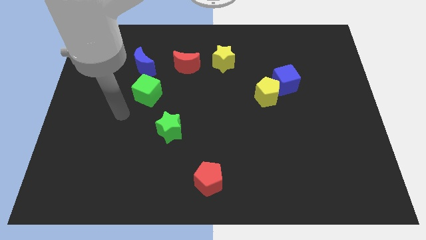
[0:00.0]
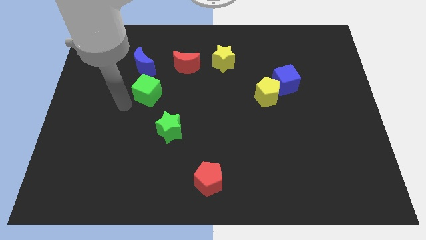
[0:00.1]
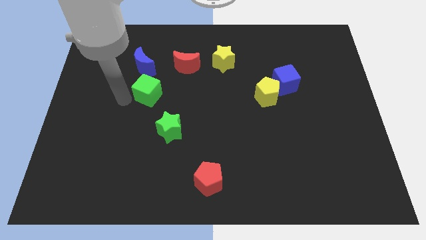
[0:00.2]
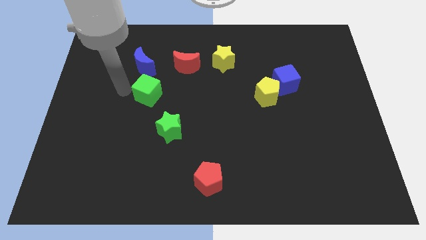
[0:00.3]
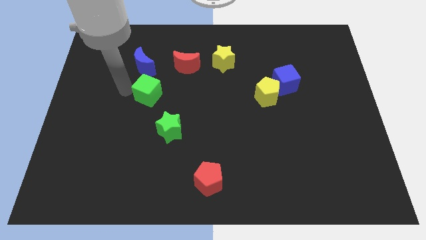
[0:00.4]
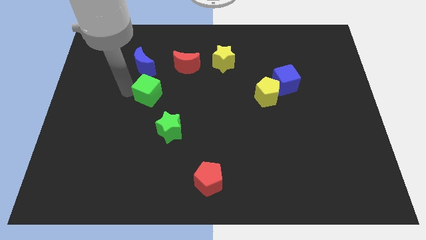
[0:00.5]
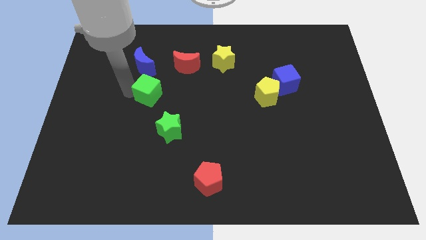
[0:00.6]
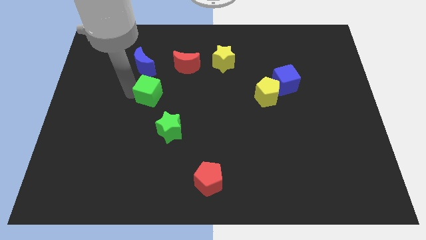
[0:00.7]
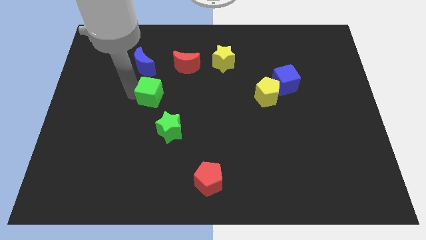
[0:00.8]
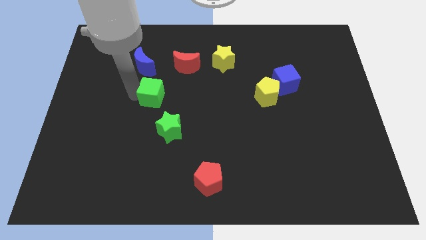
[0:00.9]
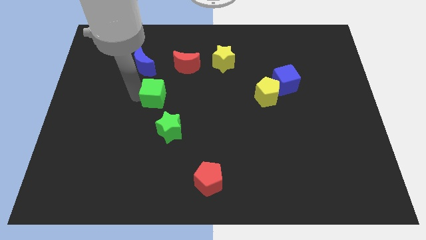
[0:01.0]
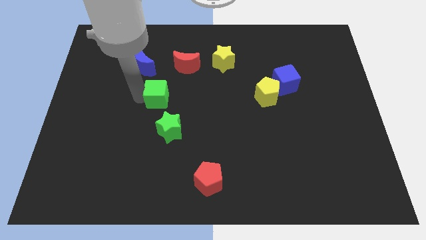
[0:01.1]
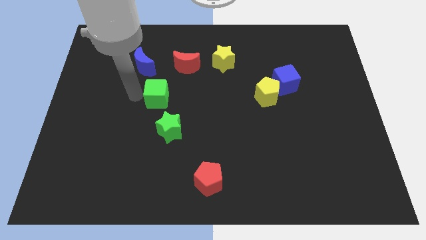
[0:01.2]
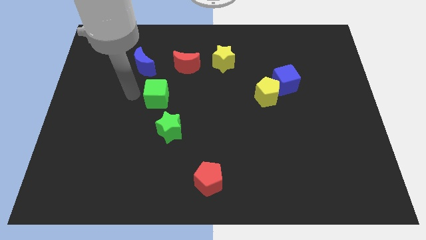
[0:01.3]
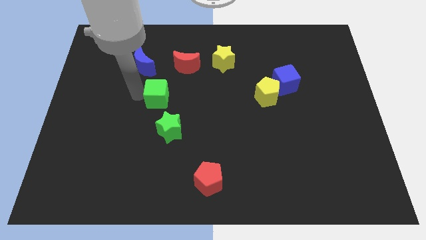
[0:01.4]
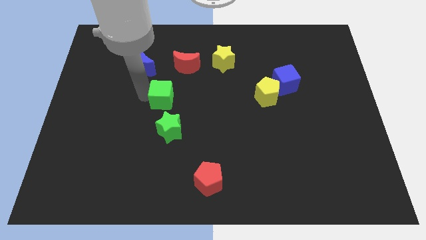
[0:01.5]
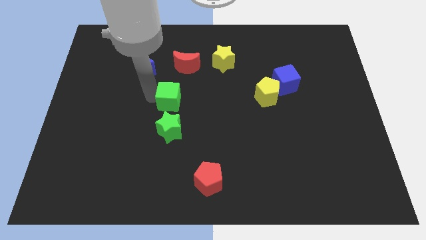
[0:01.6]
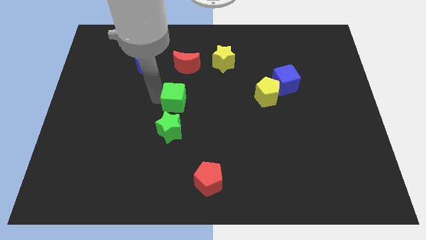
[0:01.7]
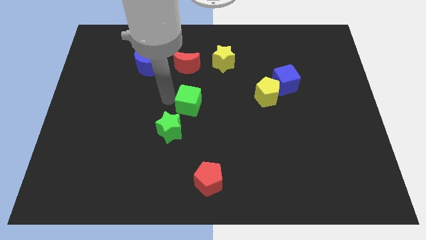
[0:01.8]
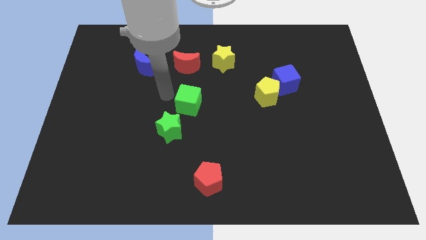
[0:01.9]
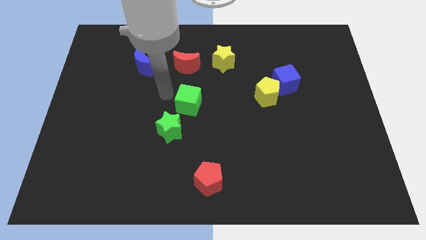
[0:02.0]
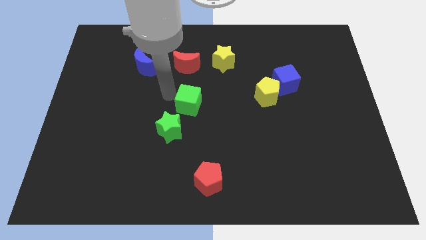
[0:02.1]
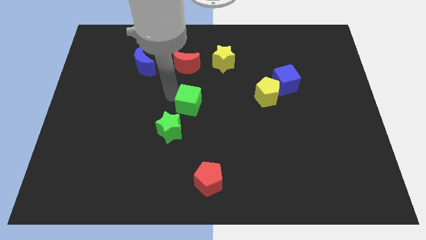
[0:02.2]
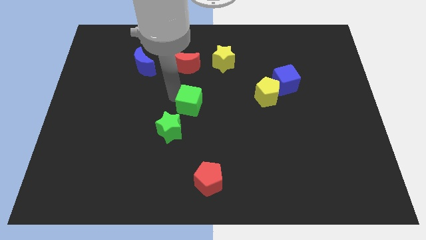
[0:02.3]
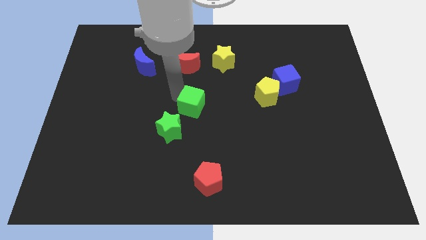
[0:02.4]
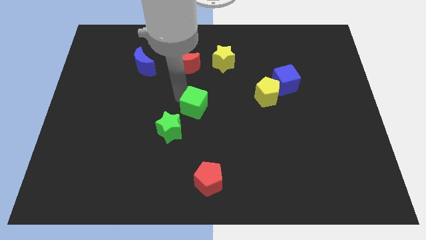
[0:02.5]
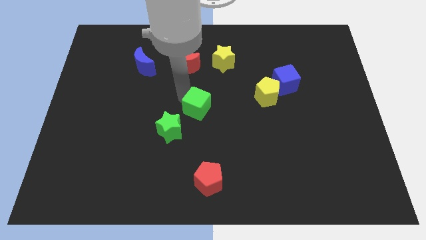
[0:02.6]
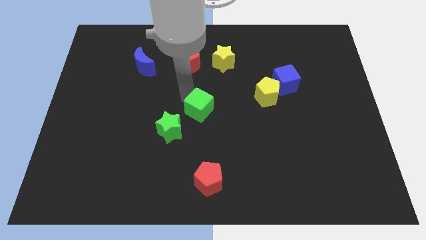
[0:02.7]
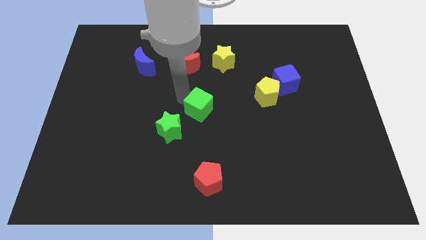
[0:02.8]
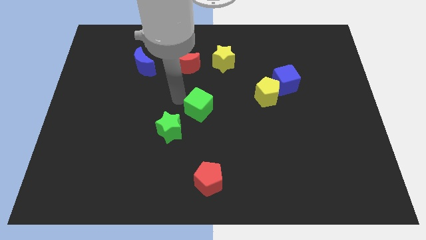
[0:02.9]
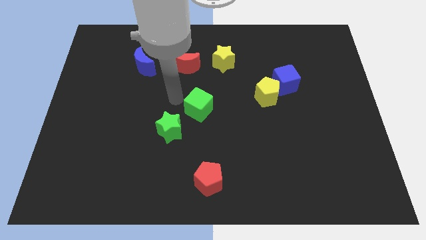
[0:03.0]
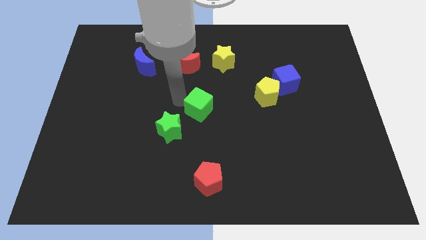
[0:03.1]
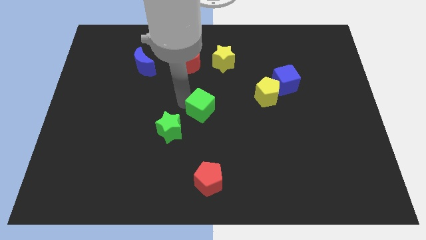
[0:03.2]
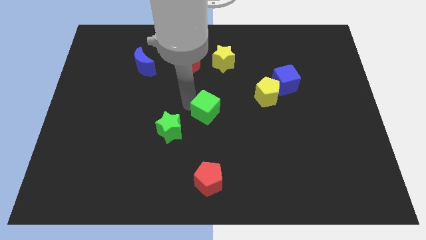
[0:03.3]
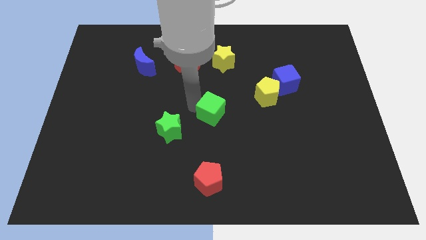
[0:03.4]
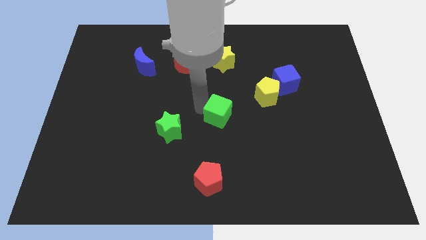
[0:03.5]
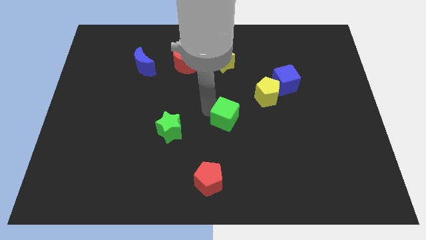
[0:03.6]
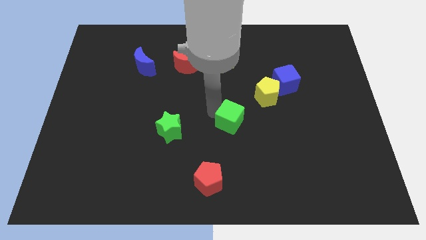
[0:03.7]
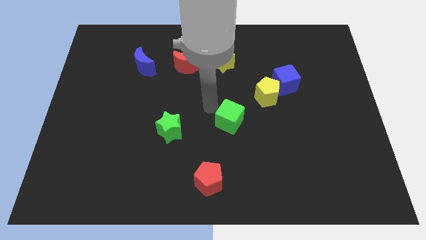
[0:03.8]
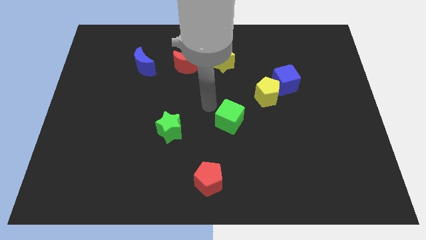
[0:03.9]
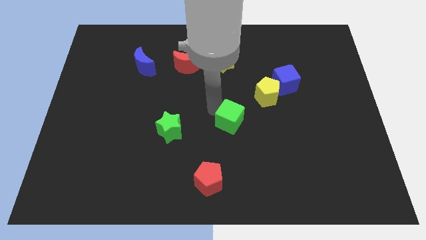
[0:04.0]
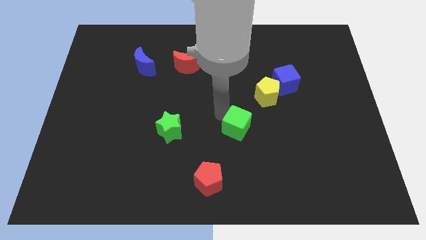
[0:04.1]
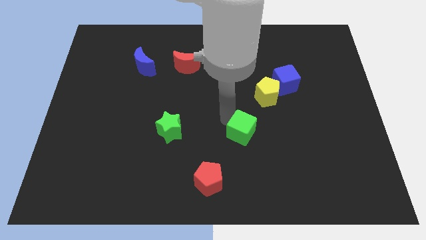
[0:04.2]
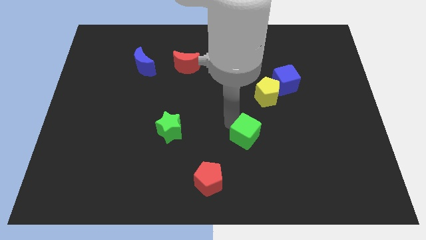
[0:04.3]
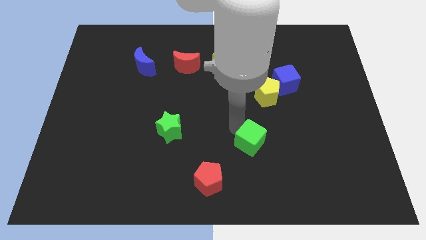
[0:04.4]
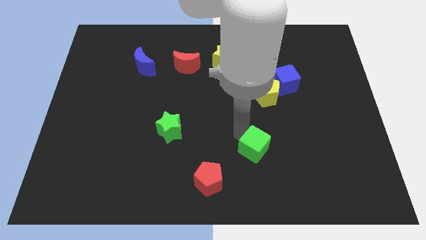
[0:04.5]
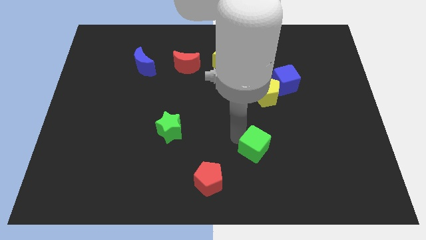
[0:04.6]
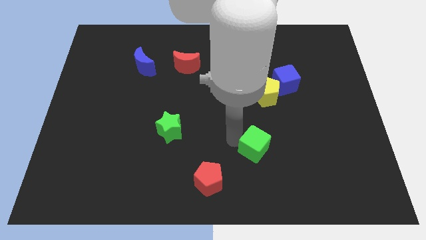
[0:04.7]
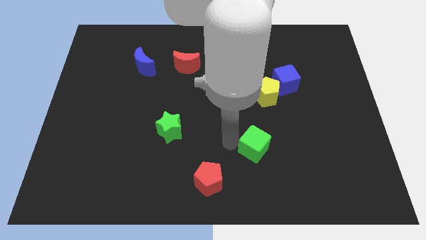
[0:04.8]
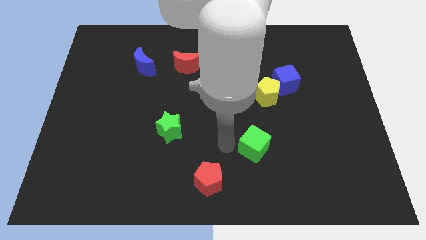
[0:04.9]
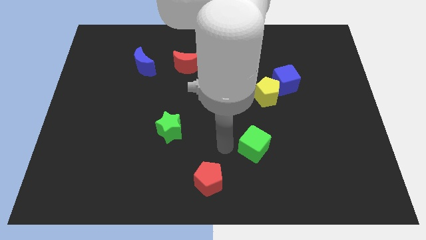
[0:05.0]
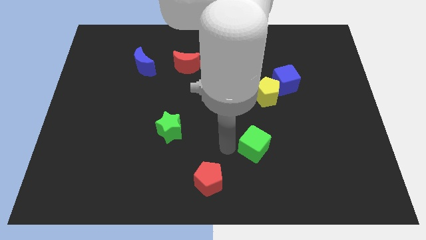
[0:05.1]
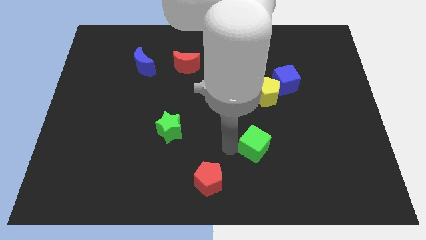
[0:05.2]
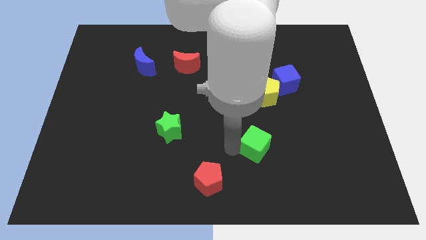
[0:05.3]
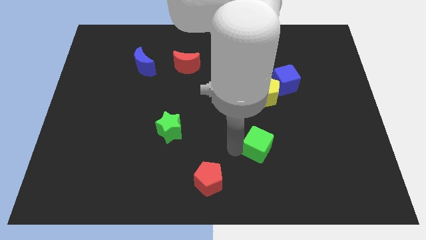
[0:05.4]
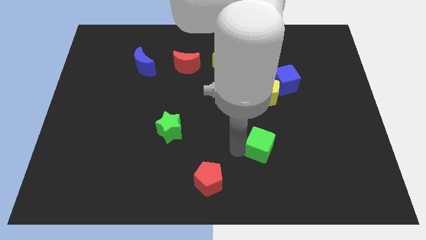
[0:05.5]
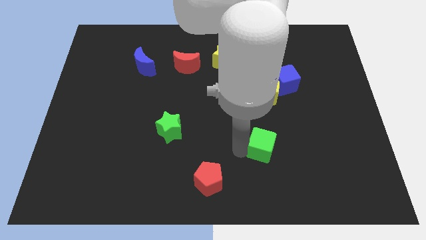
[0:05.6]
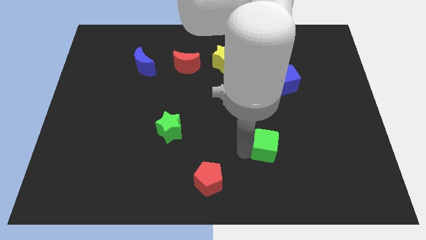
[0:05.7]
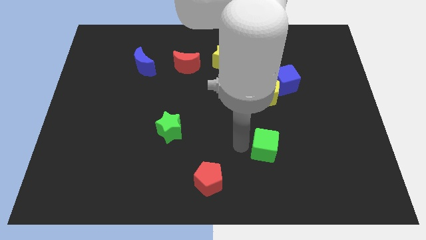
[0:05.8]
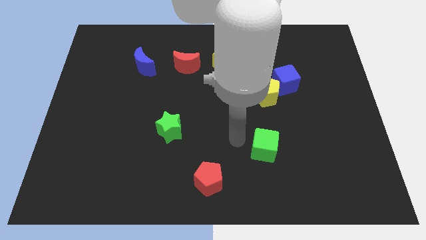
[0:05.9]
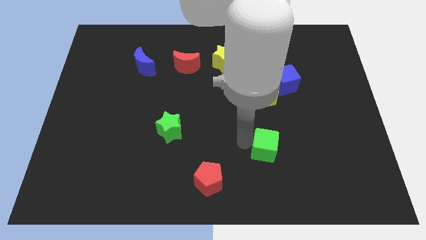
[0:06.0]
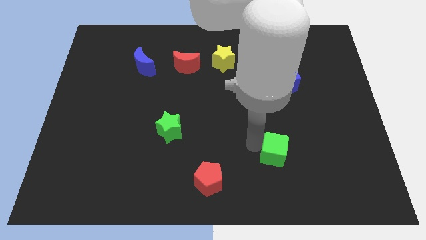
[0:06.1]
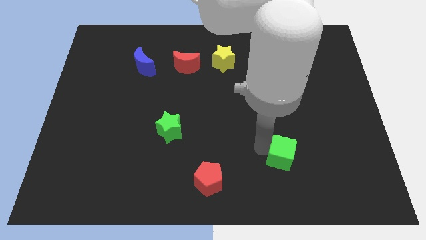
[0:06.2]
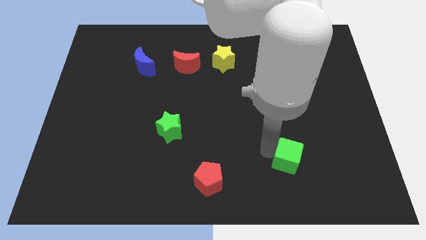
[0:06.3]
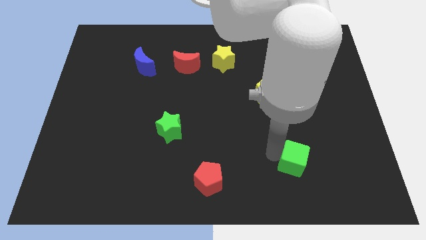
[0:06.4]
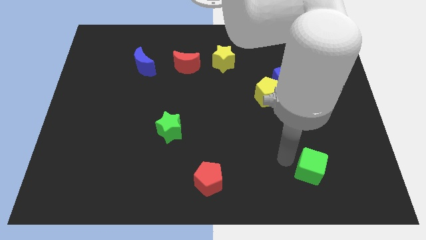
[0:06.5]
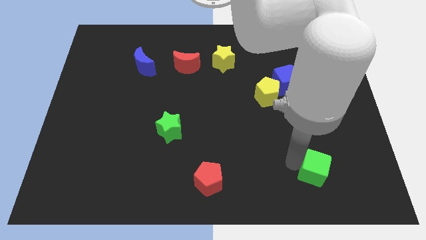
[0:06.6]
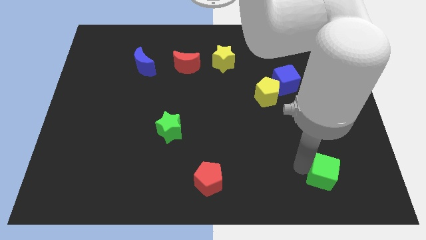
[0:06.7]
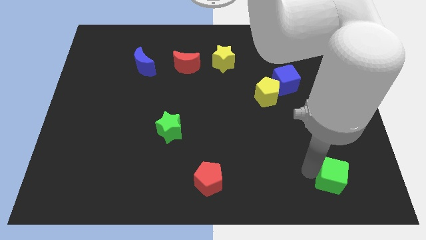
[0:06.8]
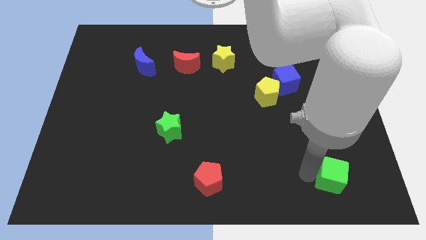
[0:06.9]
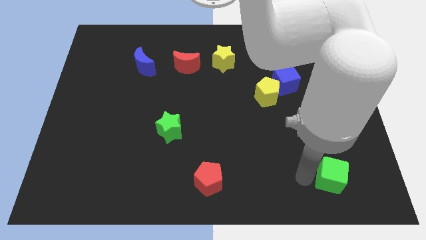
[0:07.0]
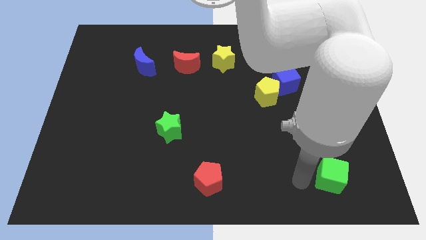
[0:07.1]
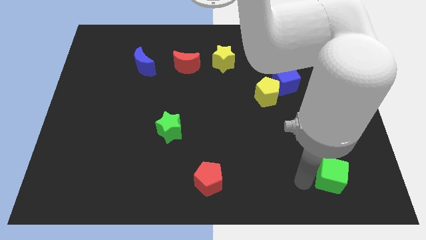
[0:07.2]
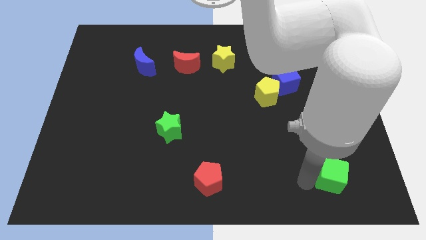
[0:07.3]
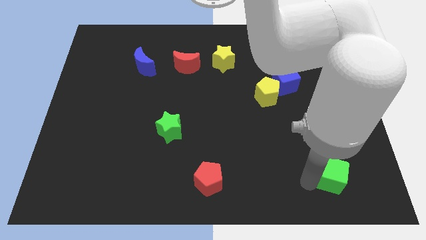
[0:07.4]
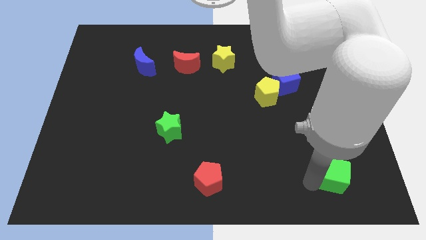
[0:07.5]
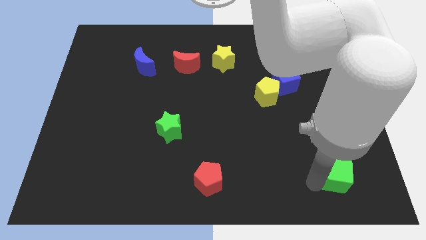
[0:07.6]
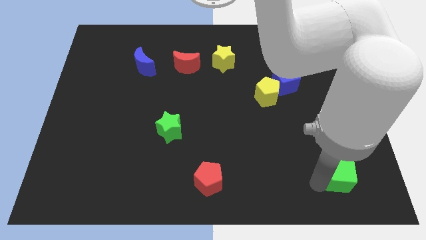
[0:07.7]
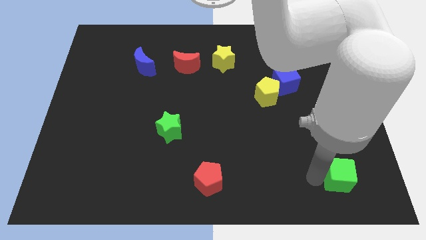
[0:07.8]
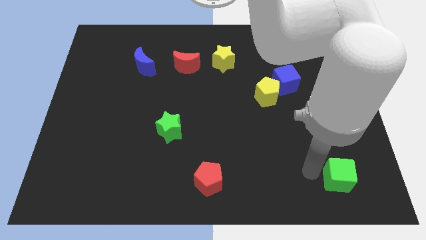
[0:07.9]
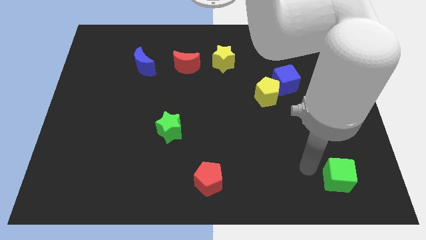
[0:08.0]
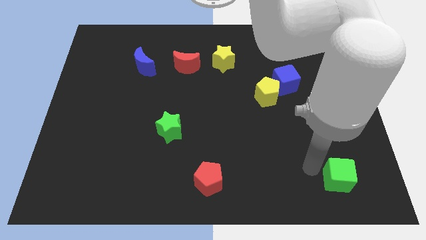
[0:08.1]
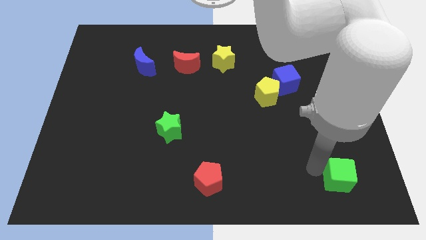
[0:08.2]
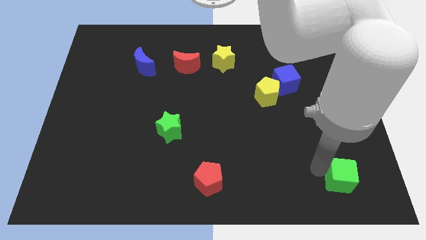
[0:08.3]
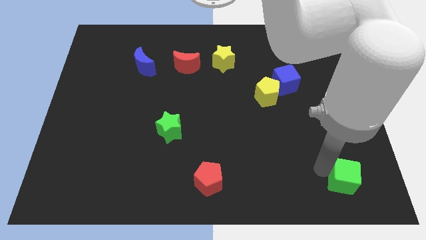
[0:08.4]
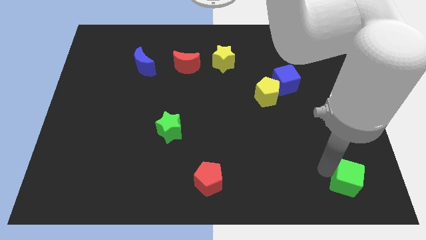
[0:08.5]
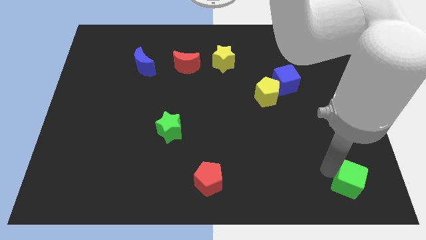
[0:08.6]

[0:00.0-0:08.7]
push the green cube to the bottom right corner
